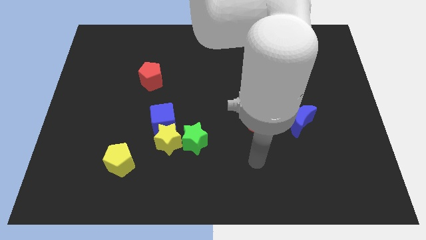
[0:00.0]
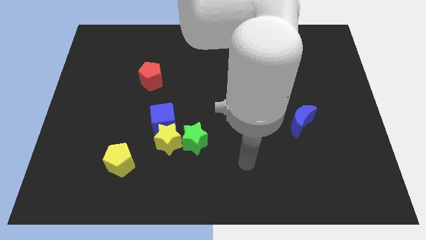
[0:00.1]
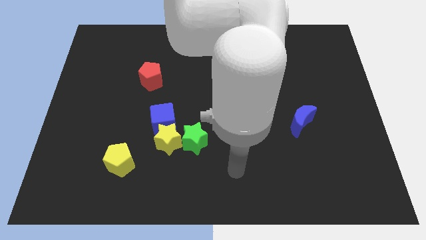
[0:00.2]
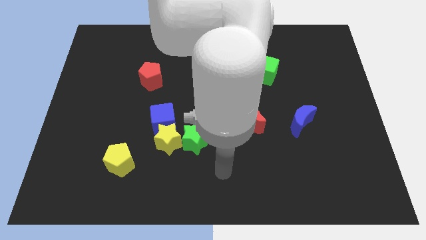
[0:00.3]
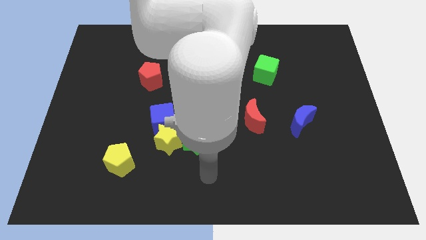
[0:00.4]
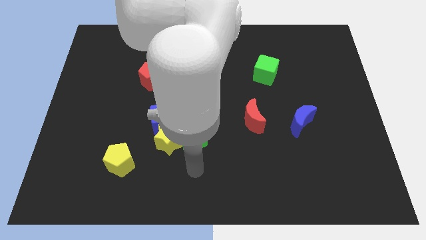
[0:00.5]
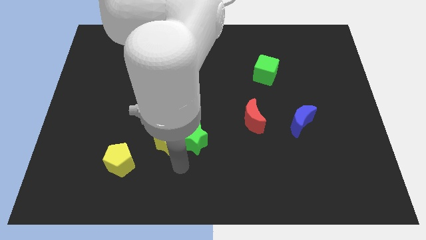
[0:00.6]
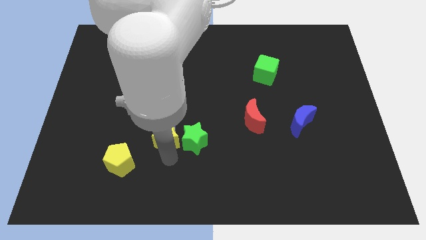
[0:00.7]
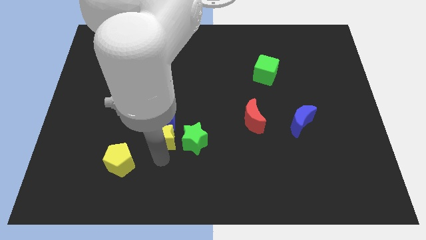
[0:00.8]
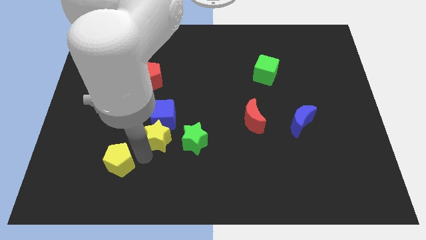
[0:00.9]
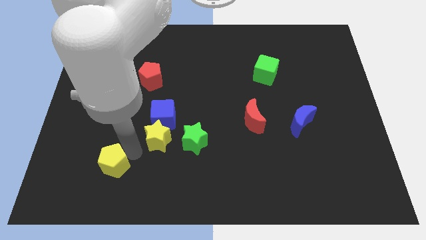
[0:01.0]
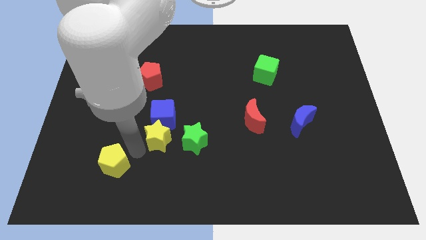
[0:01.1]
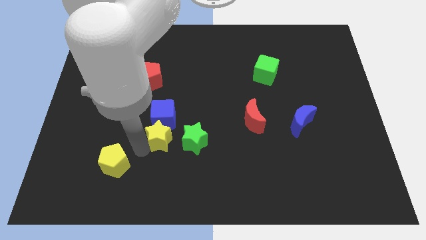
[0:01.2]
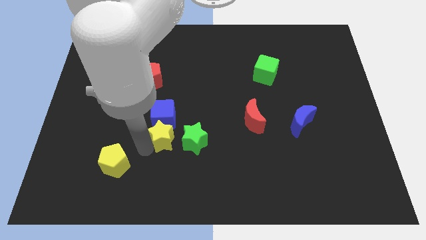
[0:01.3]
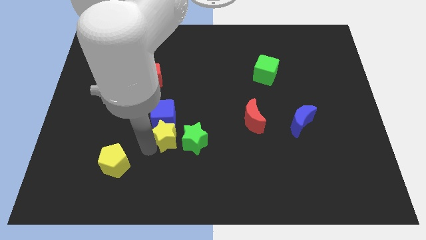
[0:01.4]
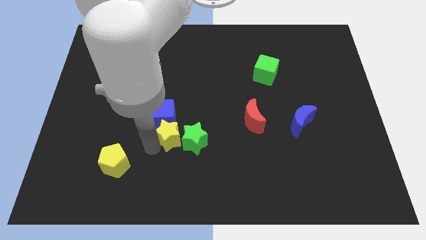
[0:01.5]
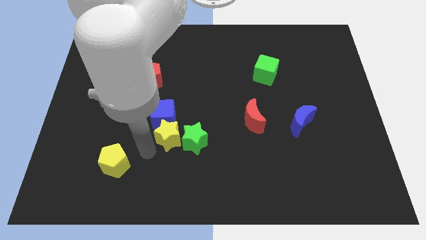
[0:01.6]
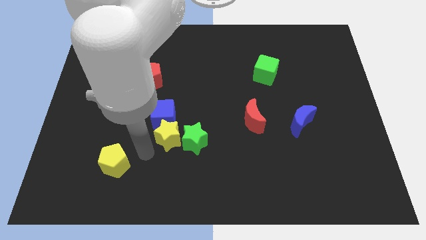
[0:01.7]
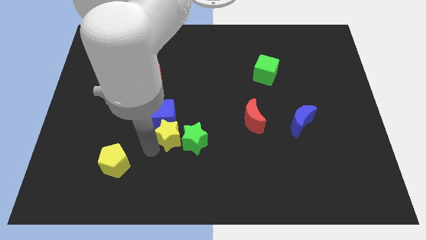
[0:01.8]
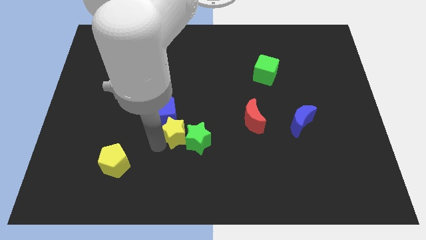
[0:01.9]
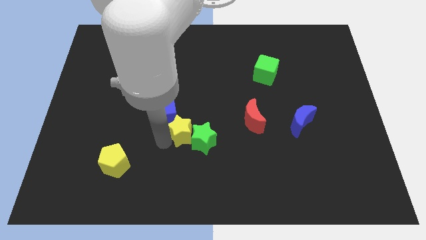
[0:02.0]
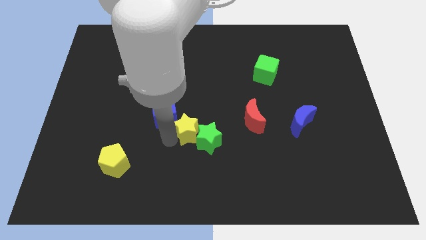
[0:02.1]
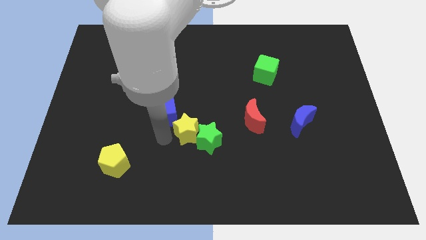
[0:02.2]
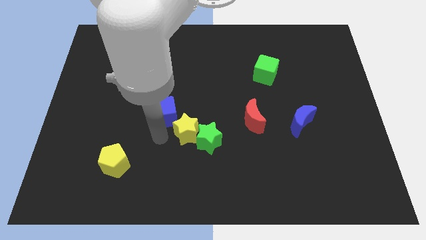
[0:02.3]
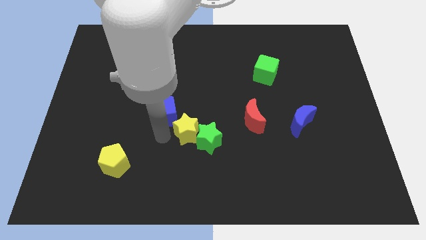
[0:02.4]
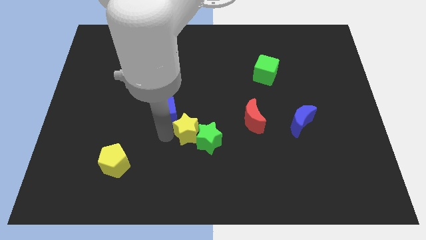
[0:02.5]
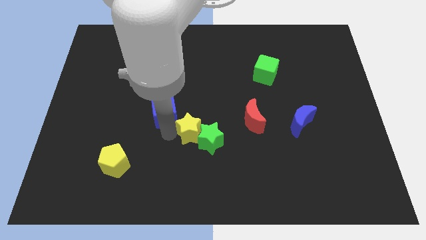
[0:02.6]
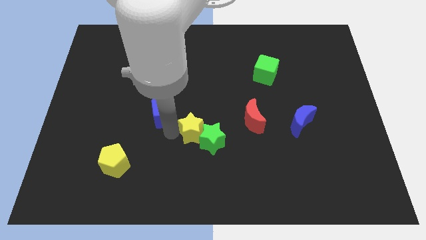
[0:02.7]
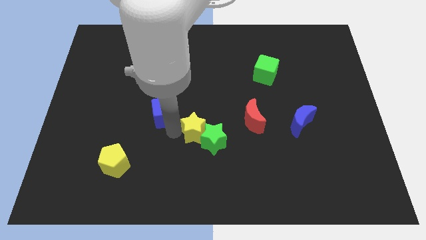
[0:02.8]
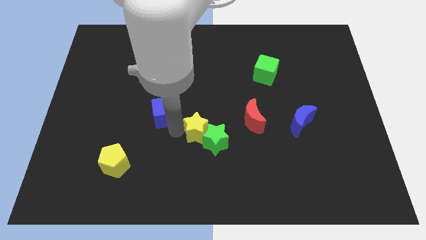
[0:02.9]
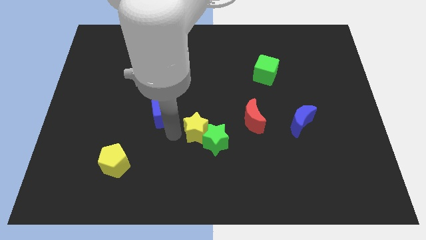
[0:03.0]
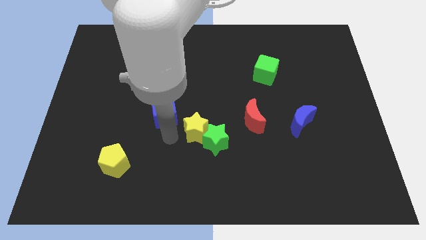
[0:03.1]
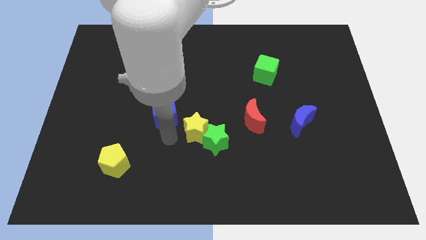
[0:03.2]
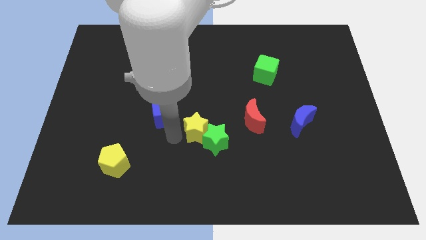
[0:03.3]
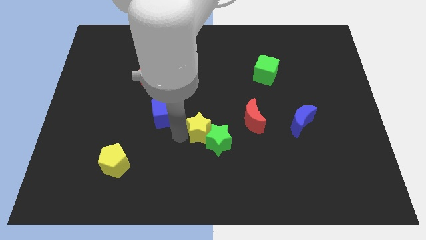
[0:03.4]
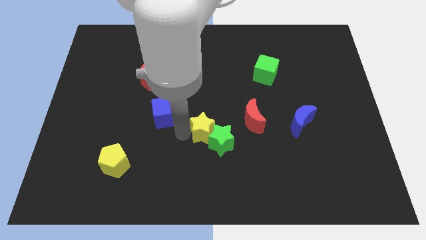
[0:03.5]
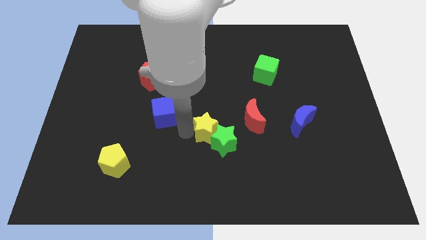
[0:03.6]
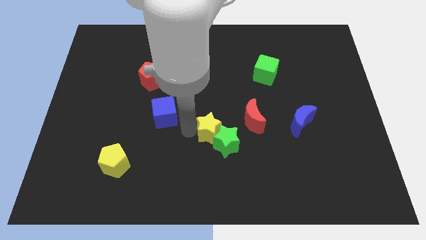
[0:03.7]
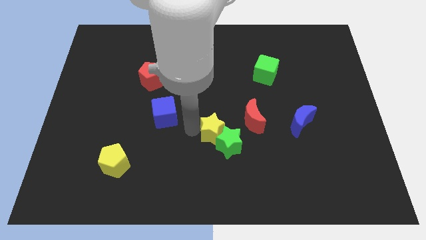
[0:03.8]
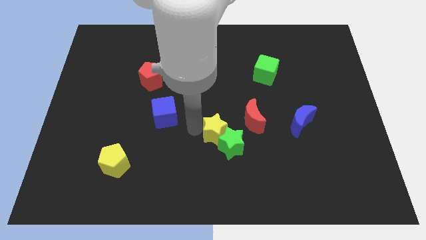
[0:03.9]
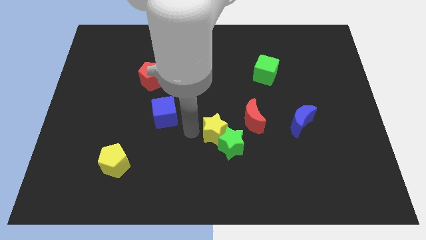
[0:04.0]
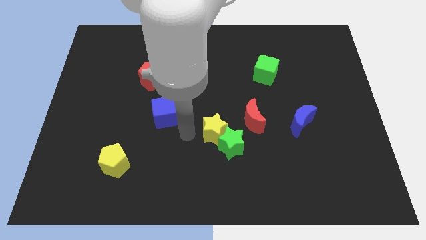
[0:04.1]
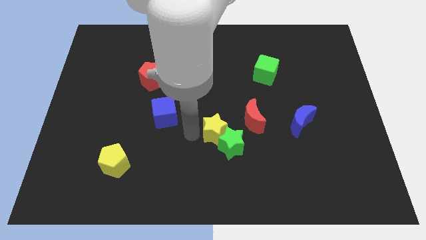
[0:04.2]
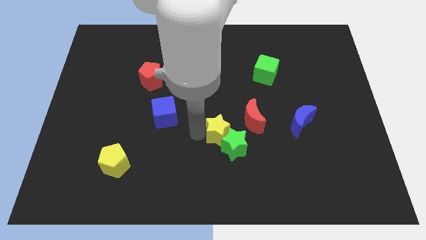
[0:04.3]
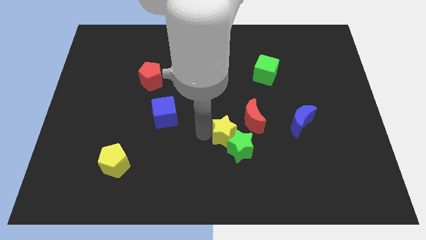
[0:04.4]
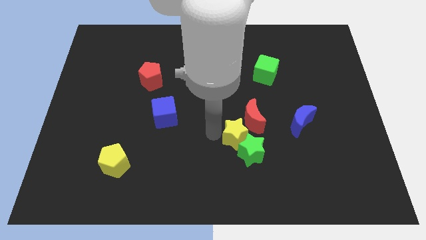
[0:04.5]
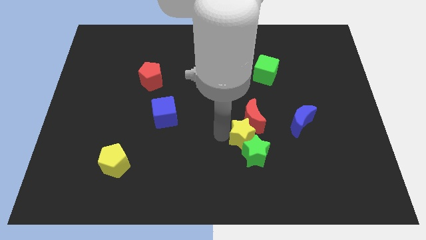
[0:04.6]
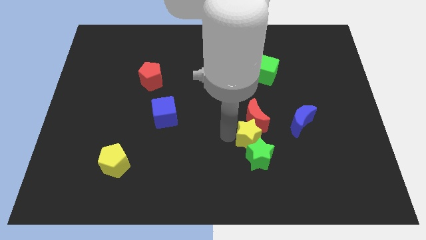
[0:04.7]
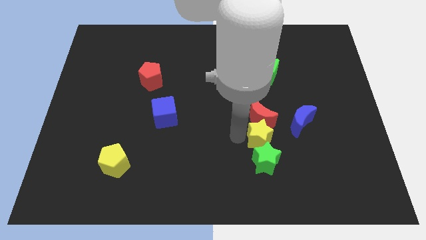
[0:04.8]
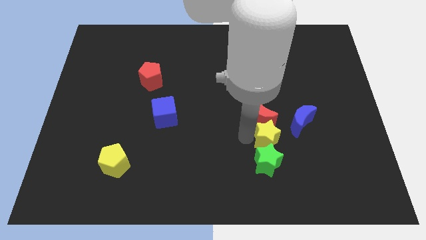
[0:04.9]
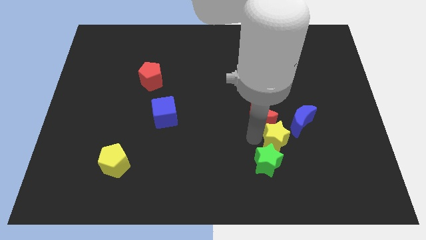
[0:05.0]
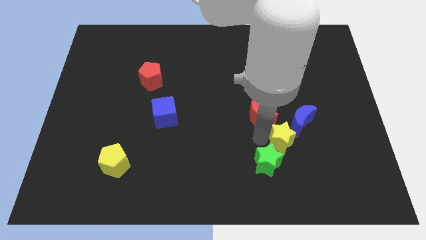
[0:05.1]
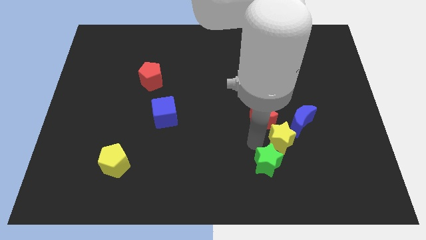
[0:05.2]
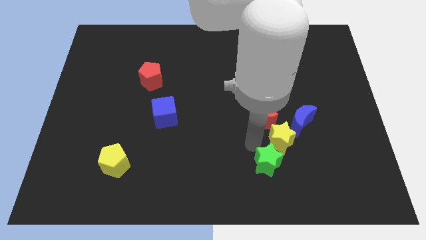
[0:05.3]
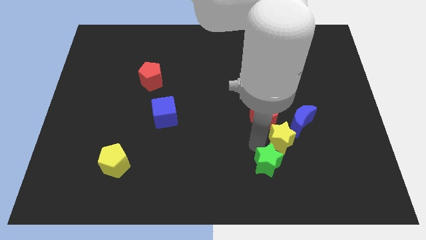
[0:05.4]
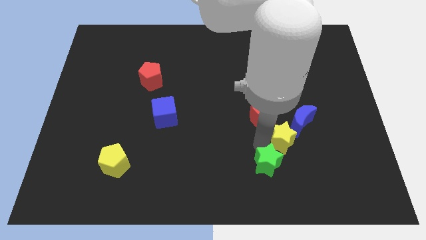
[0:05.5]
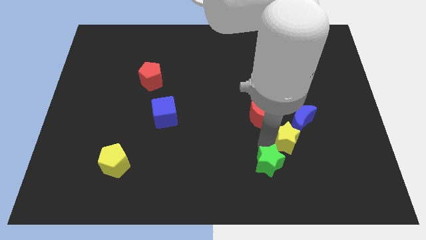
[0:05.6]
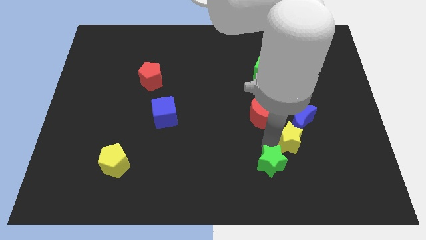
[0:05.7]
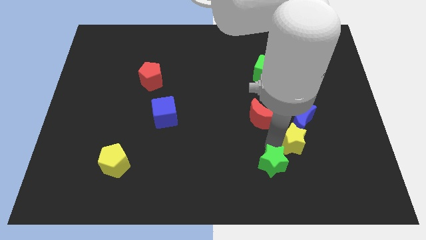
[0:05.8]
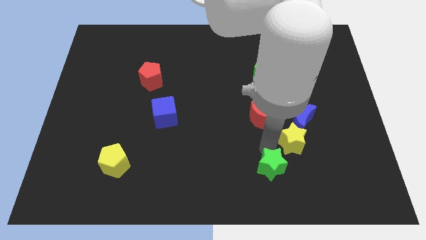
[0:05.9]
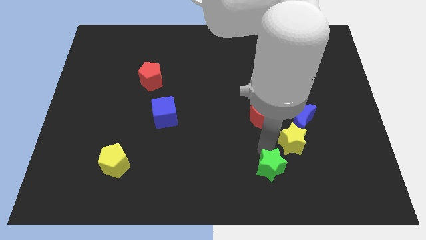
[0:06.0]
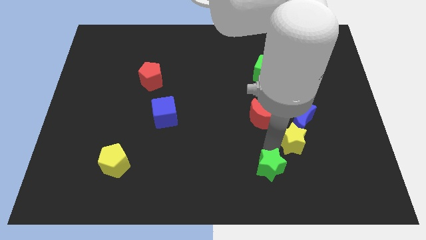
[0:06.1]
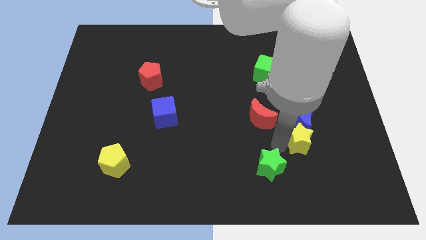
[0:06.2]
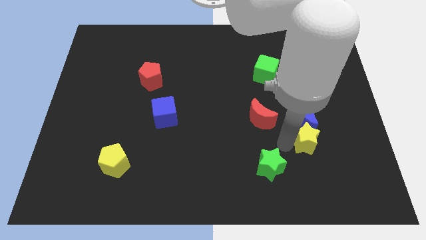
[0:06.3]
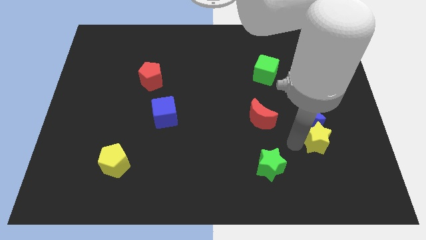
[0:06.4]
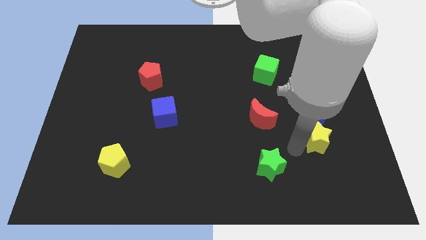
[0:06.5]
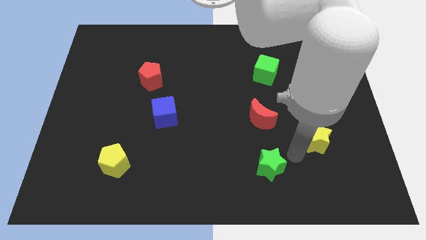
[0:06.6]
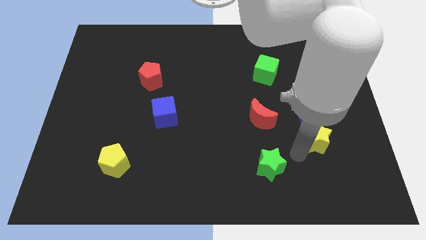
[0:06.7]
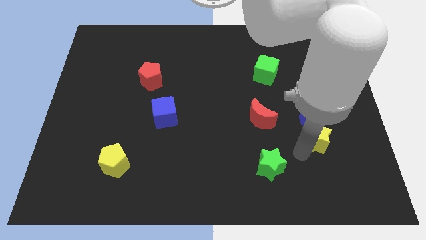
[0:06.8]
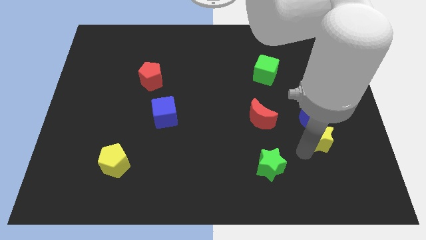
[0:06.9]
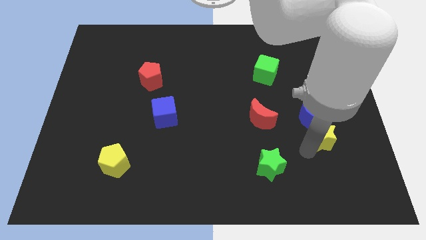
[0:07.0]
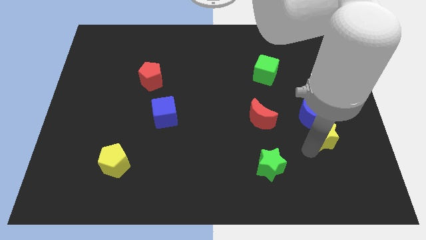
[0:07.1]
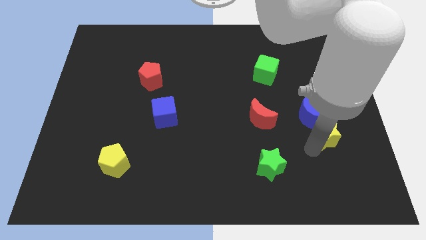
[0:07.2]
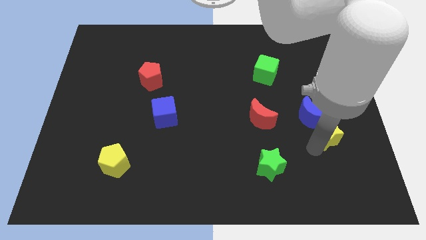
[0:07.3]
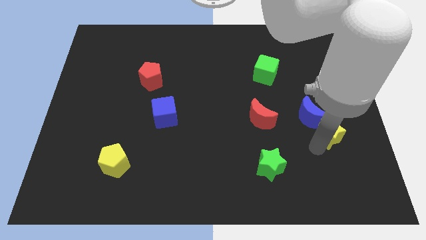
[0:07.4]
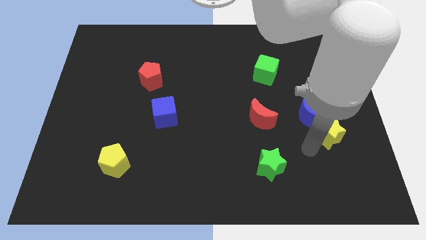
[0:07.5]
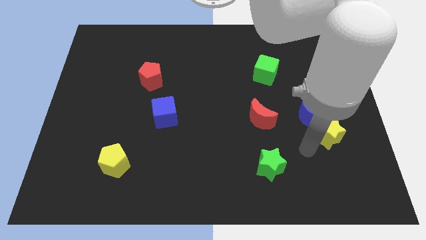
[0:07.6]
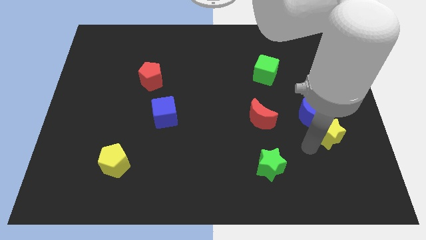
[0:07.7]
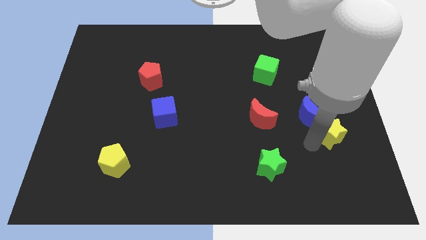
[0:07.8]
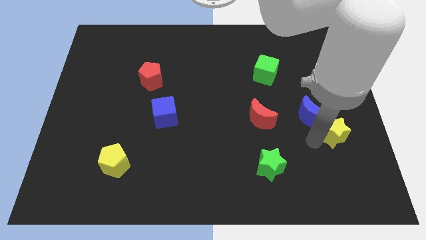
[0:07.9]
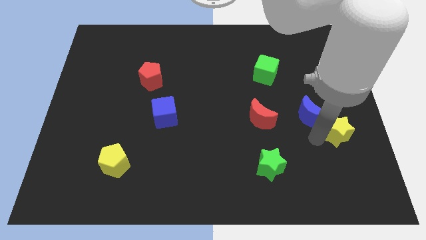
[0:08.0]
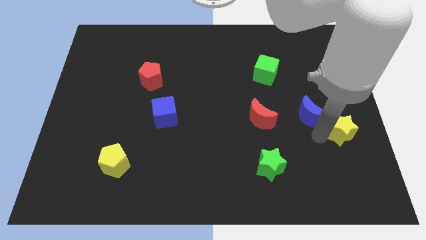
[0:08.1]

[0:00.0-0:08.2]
slide the yellow star to the center right
